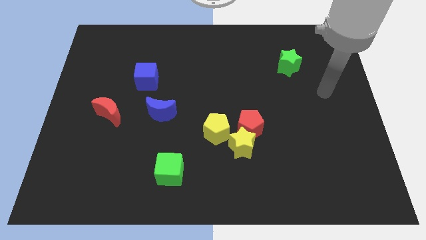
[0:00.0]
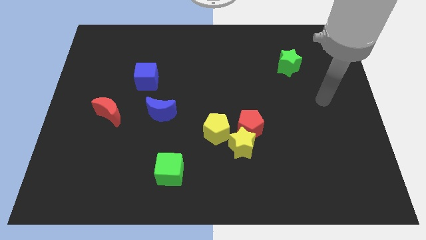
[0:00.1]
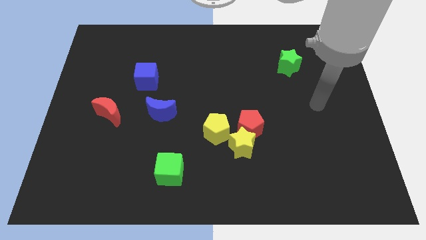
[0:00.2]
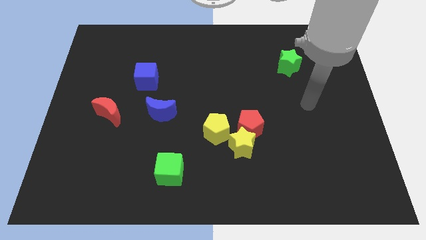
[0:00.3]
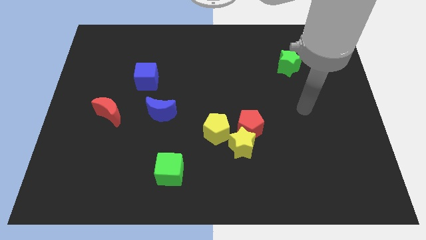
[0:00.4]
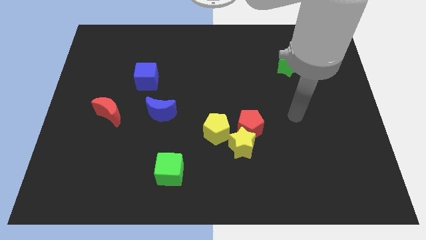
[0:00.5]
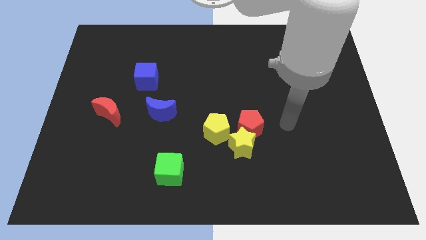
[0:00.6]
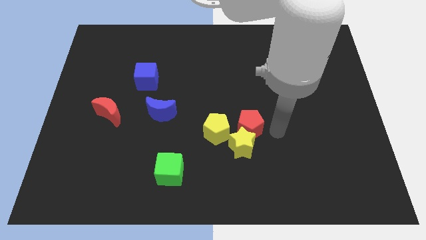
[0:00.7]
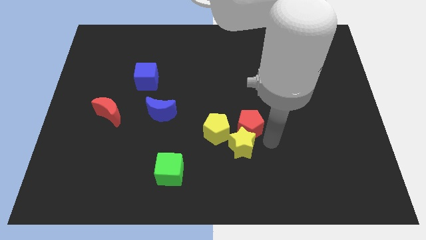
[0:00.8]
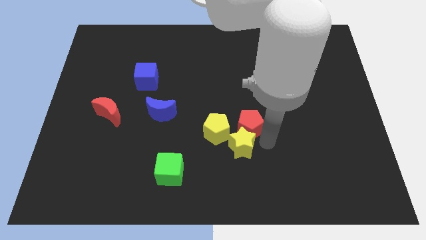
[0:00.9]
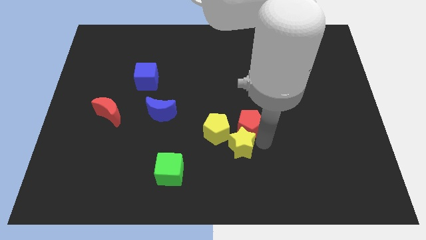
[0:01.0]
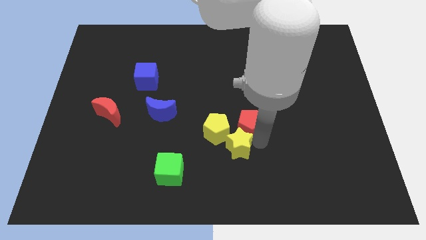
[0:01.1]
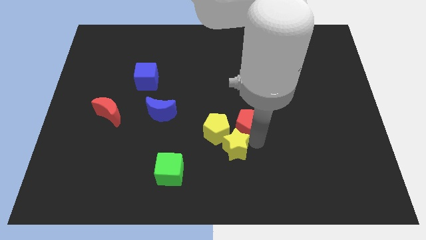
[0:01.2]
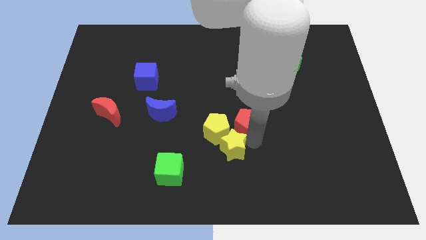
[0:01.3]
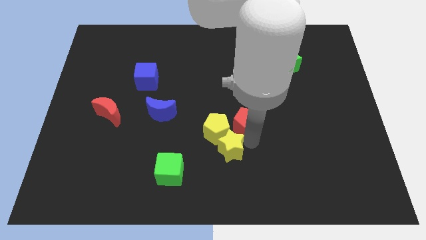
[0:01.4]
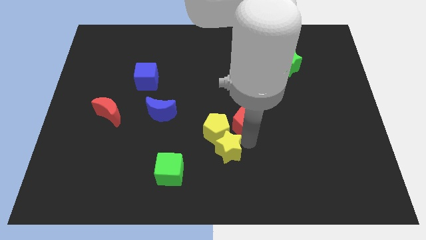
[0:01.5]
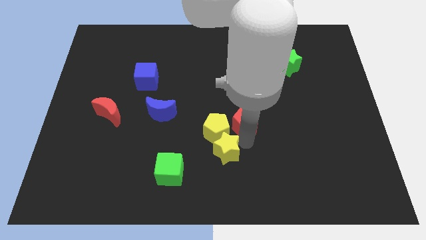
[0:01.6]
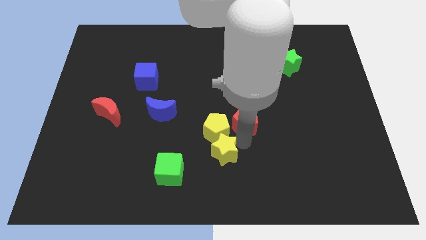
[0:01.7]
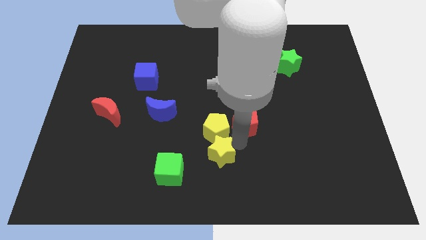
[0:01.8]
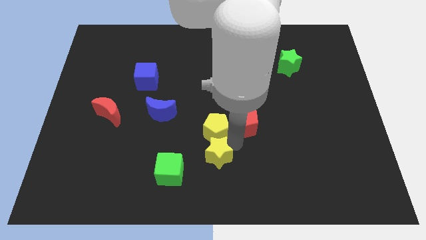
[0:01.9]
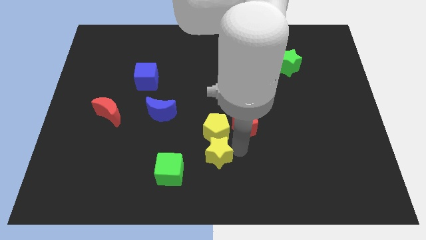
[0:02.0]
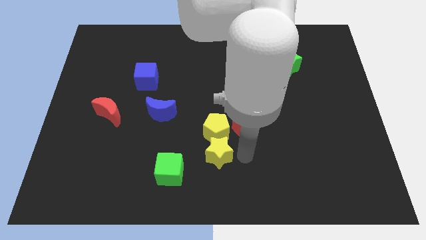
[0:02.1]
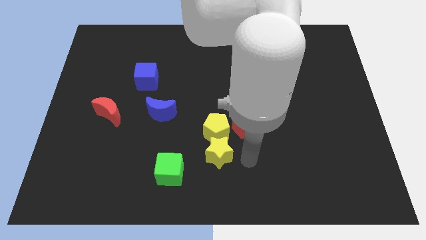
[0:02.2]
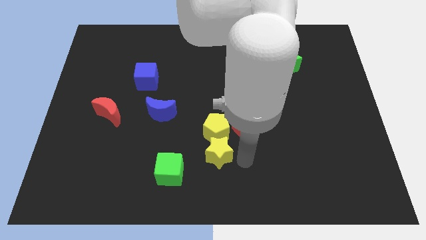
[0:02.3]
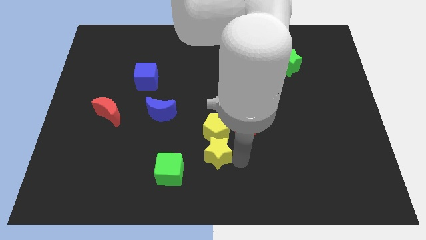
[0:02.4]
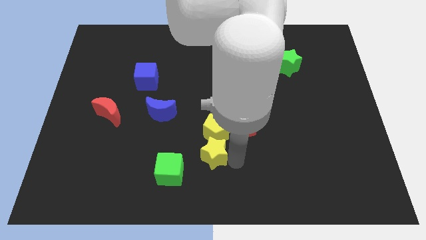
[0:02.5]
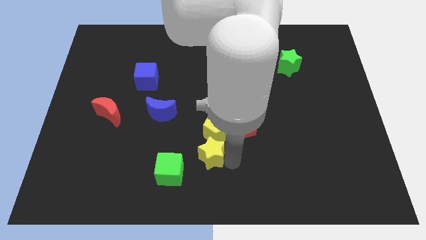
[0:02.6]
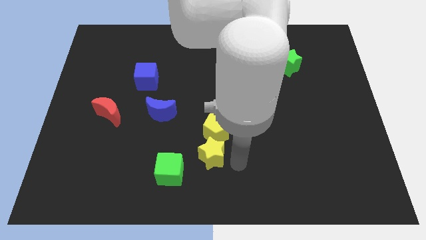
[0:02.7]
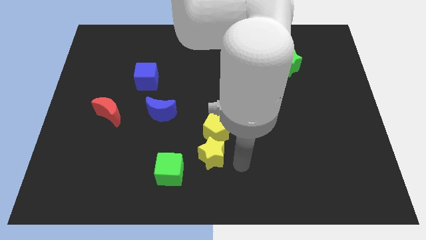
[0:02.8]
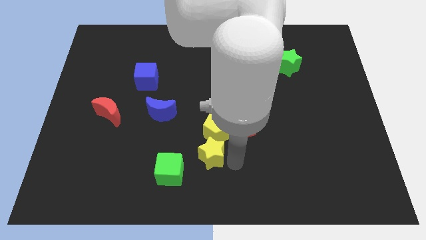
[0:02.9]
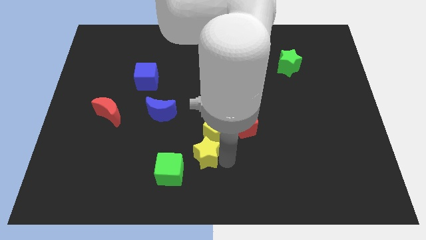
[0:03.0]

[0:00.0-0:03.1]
push the yellow star to the left somewhat

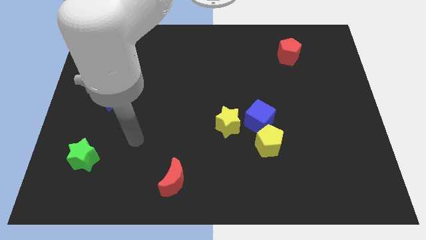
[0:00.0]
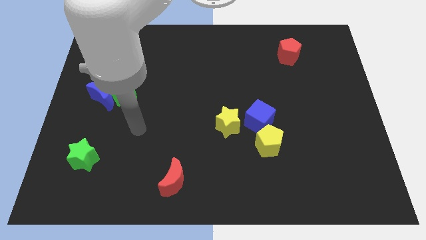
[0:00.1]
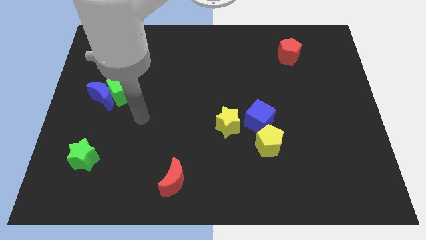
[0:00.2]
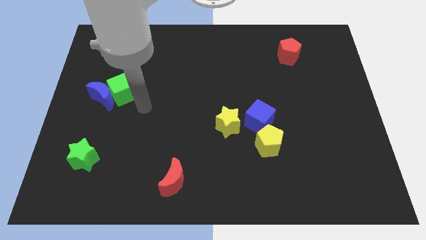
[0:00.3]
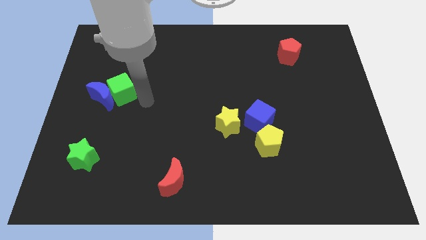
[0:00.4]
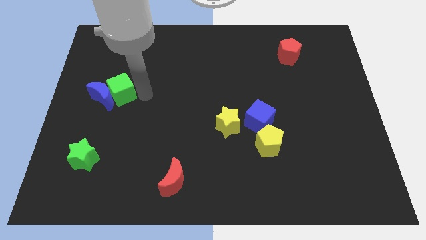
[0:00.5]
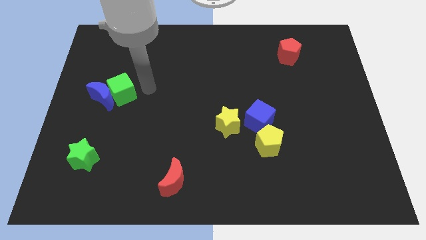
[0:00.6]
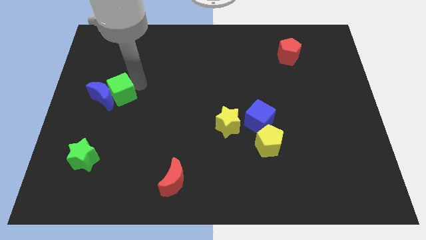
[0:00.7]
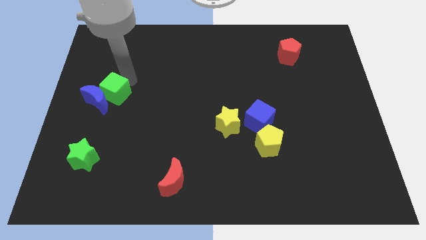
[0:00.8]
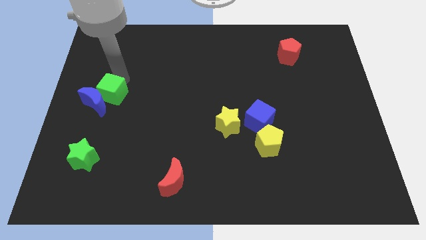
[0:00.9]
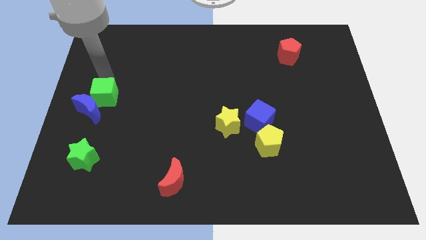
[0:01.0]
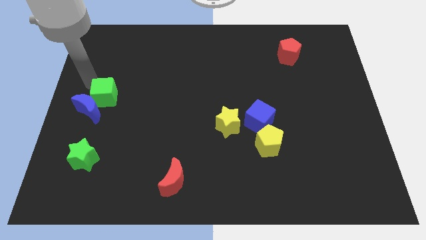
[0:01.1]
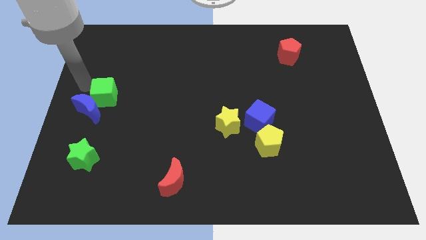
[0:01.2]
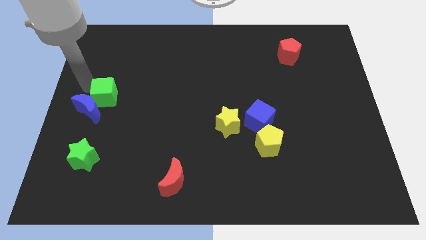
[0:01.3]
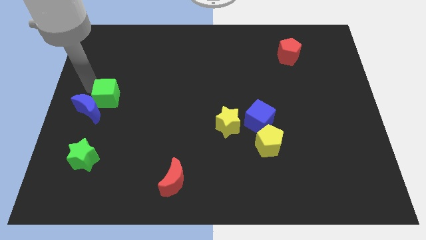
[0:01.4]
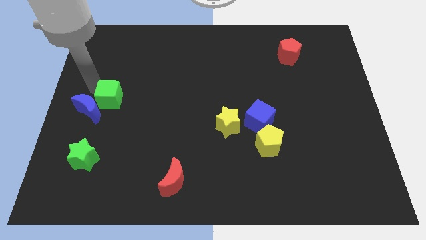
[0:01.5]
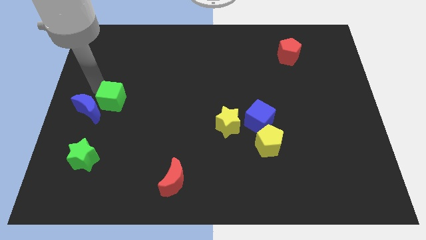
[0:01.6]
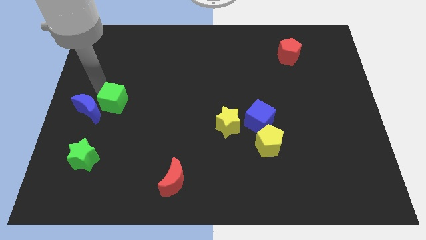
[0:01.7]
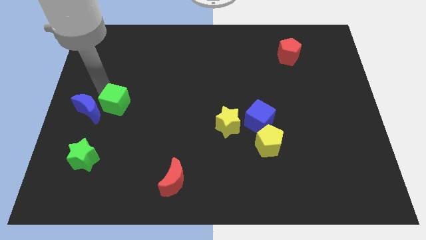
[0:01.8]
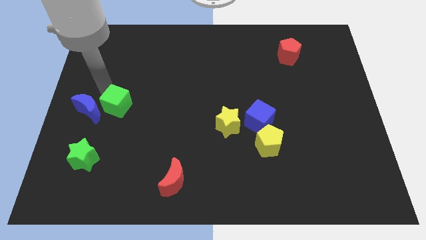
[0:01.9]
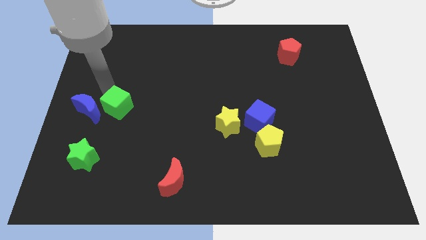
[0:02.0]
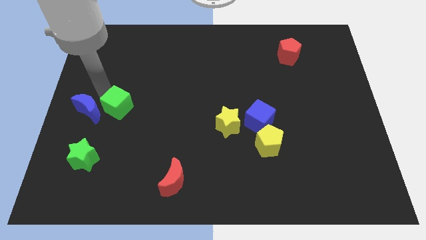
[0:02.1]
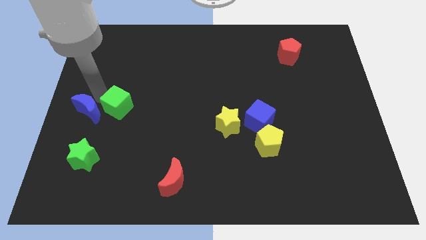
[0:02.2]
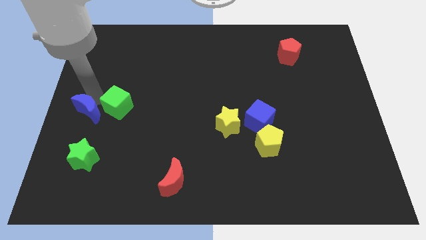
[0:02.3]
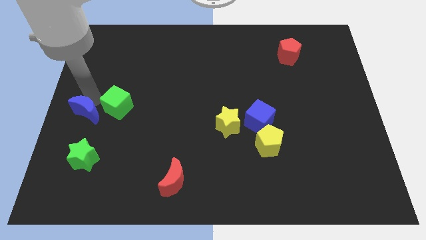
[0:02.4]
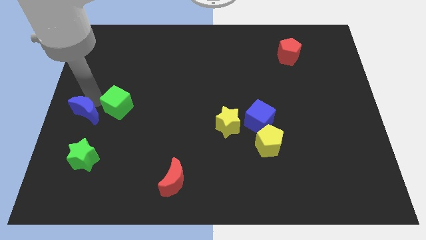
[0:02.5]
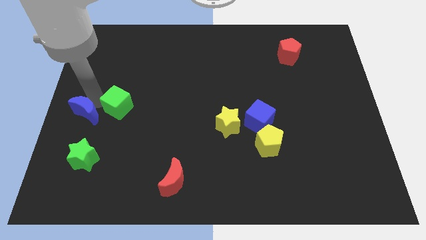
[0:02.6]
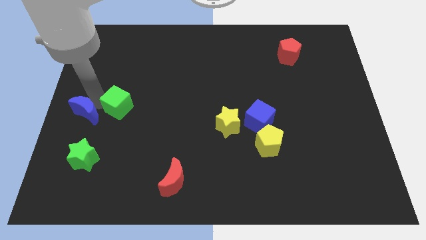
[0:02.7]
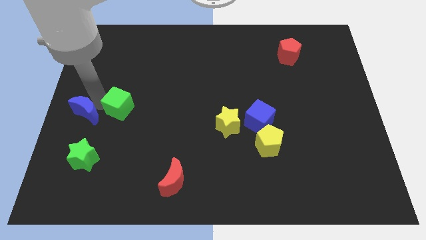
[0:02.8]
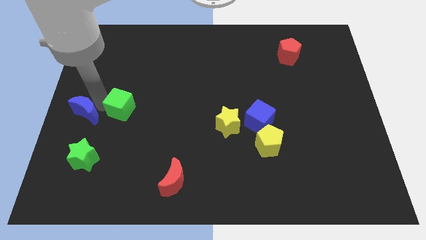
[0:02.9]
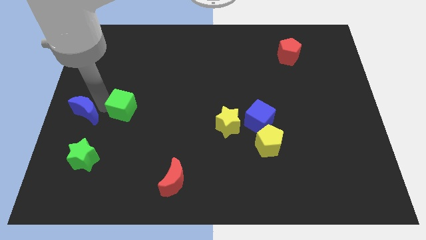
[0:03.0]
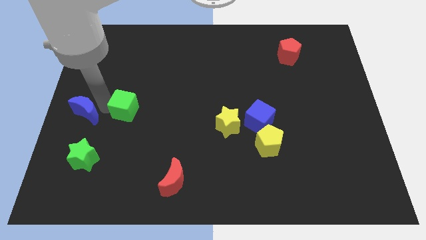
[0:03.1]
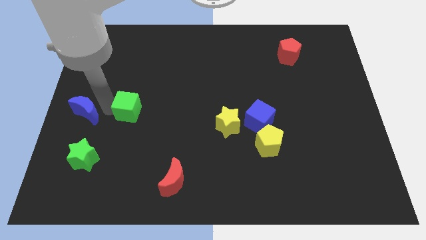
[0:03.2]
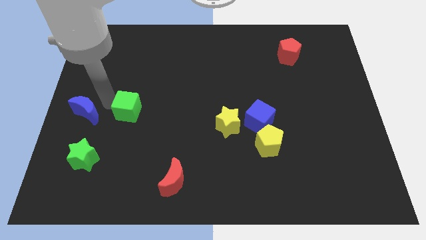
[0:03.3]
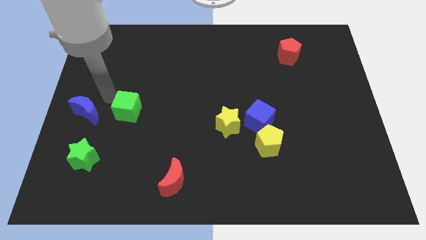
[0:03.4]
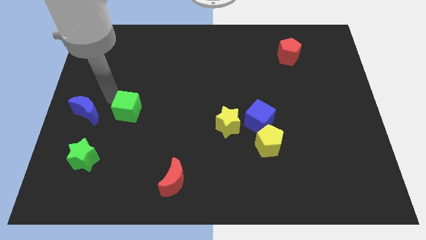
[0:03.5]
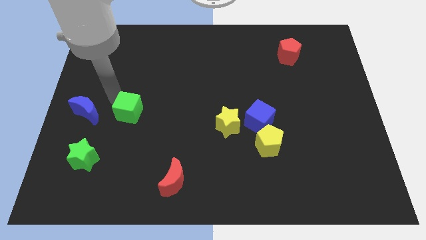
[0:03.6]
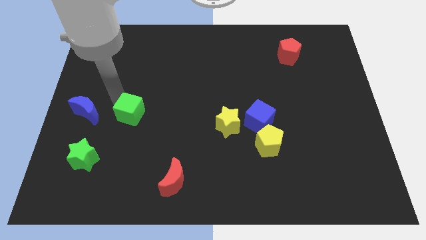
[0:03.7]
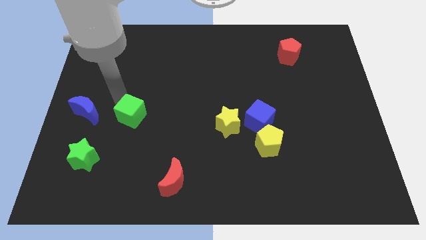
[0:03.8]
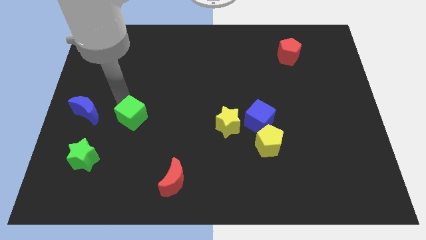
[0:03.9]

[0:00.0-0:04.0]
push the green cube slightly downwards and right diagonally

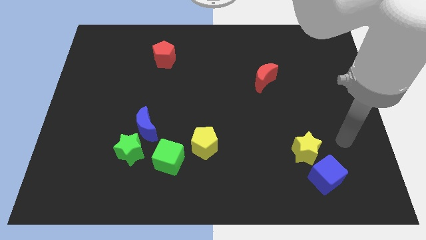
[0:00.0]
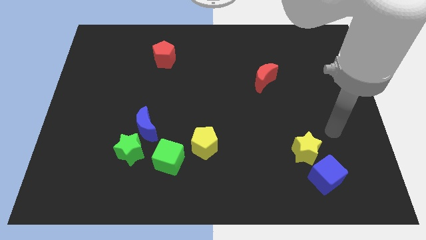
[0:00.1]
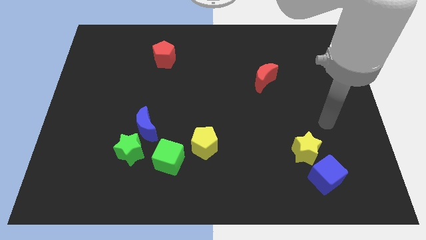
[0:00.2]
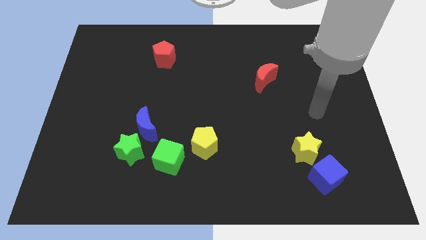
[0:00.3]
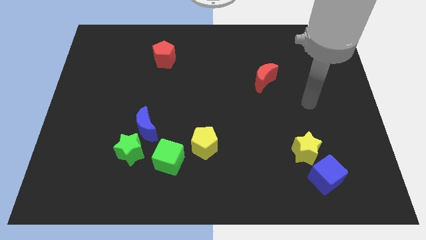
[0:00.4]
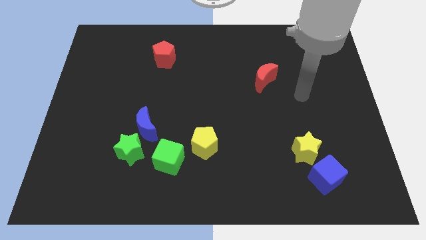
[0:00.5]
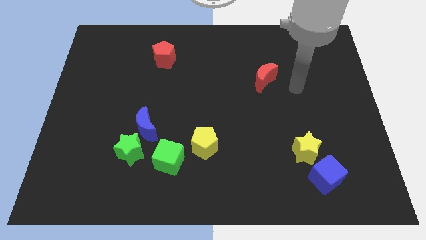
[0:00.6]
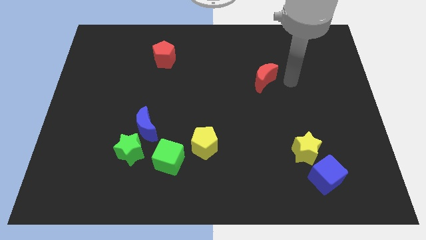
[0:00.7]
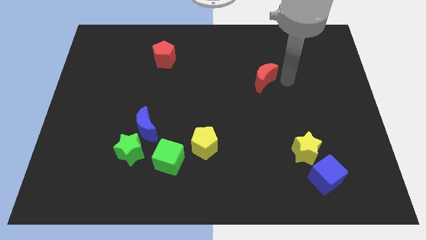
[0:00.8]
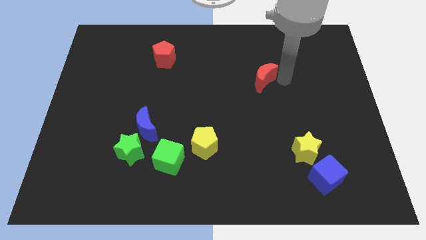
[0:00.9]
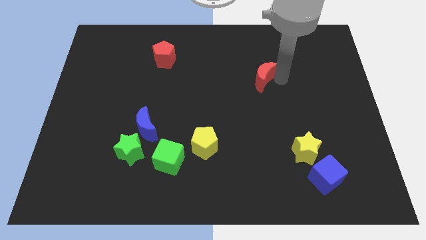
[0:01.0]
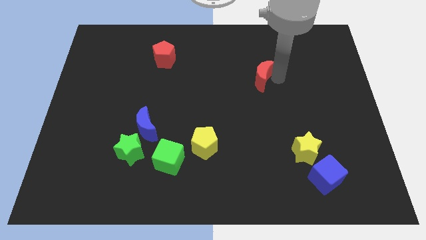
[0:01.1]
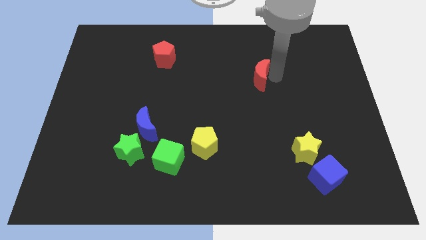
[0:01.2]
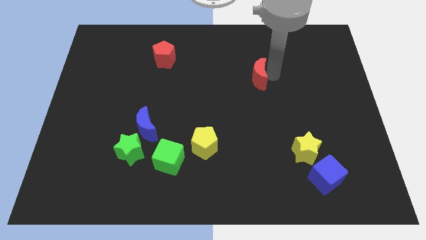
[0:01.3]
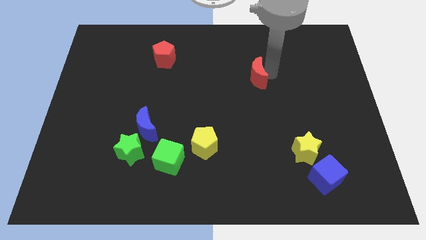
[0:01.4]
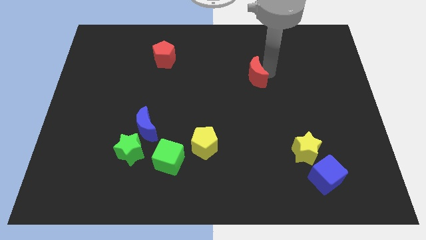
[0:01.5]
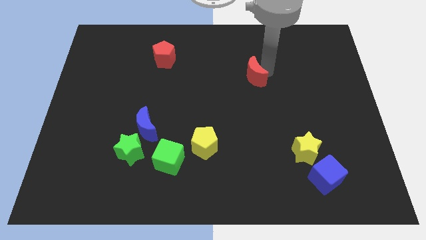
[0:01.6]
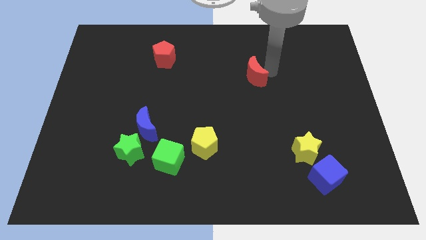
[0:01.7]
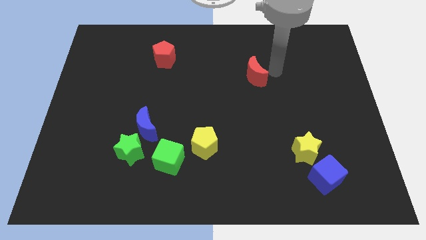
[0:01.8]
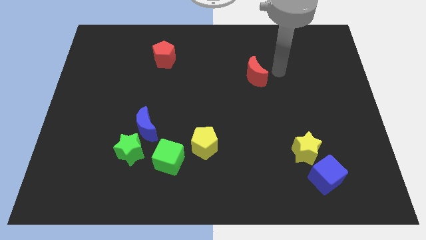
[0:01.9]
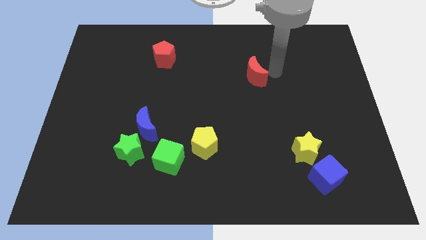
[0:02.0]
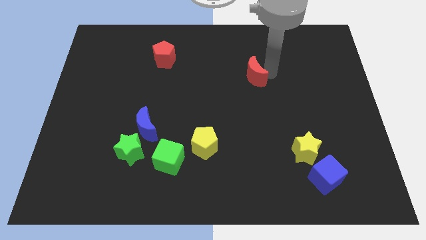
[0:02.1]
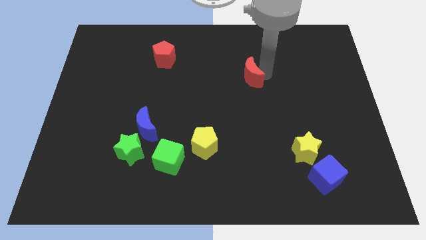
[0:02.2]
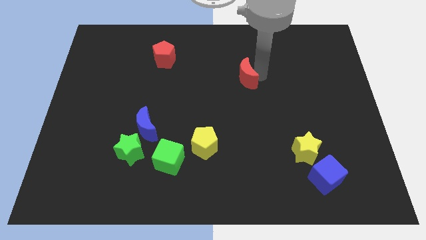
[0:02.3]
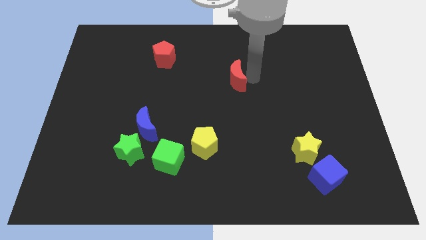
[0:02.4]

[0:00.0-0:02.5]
push the red moon left somewhat
